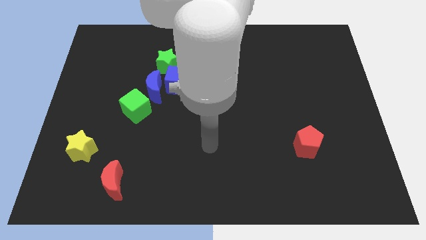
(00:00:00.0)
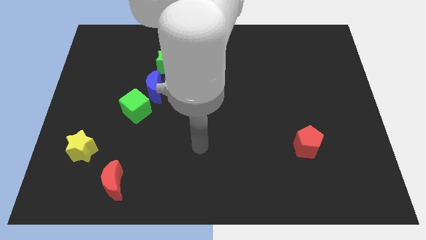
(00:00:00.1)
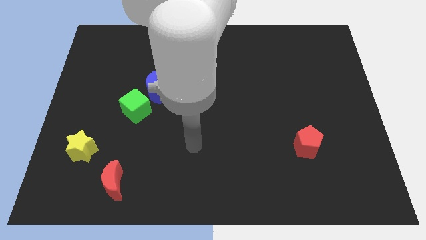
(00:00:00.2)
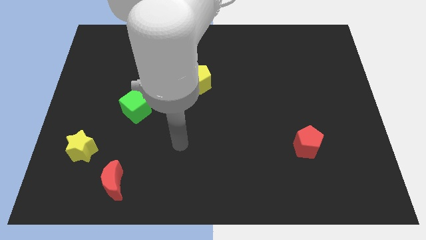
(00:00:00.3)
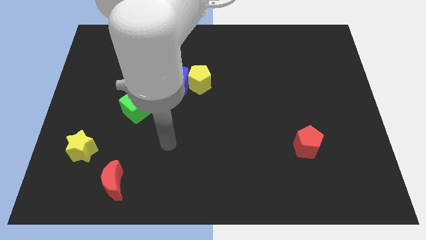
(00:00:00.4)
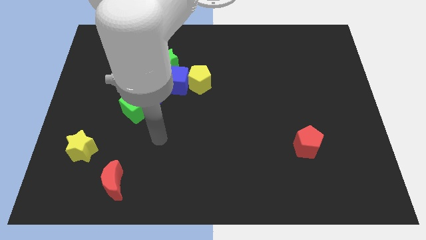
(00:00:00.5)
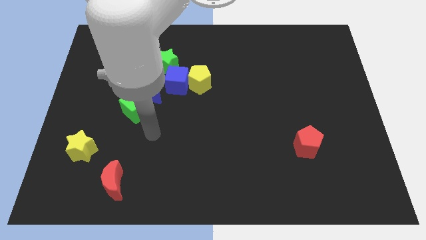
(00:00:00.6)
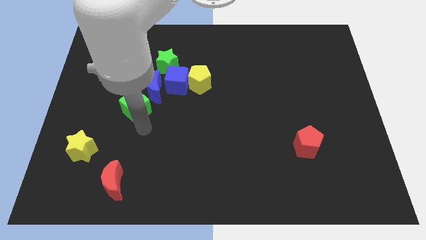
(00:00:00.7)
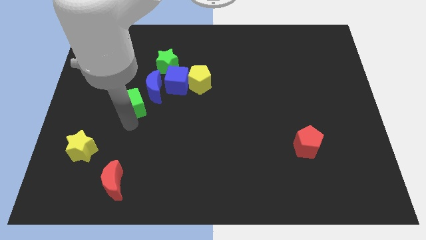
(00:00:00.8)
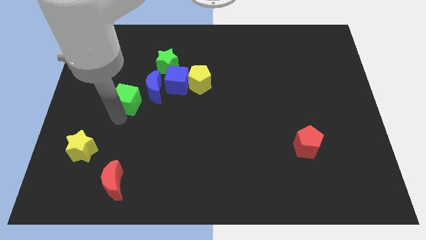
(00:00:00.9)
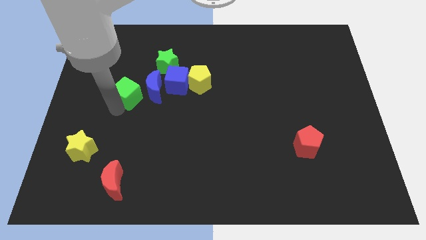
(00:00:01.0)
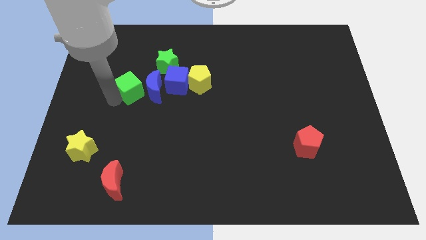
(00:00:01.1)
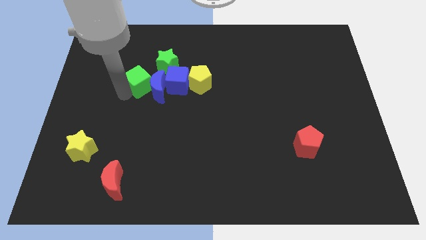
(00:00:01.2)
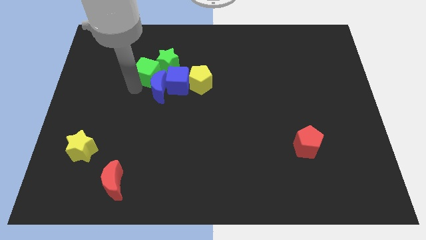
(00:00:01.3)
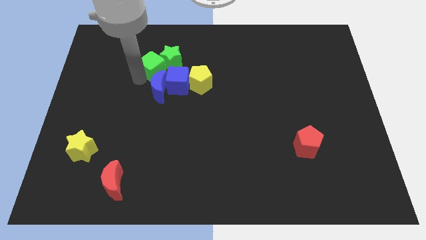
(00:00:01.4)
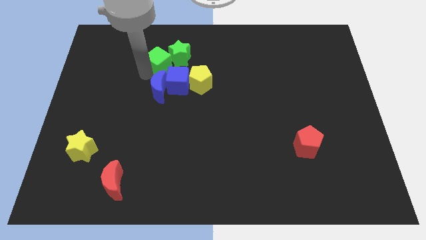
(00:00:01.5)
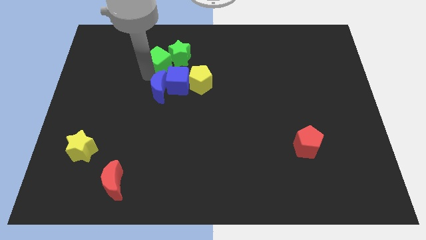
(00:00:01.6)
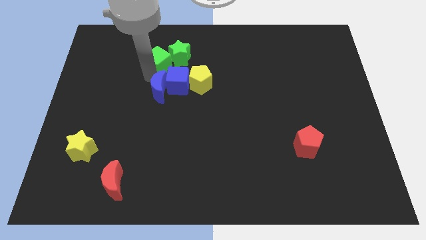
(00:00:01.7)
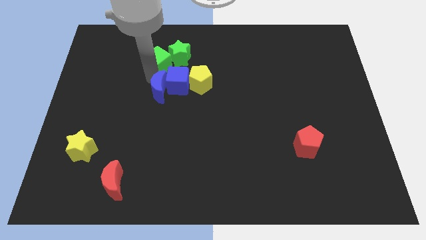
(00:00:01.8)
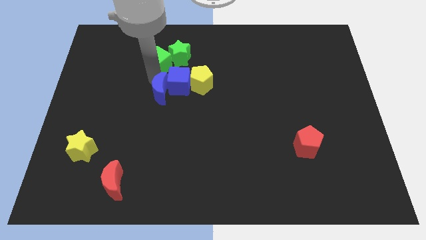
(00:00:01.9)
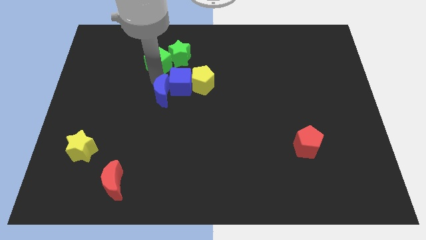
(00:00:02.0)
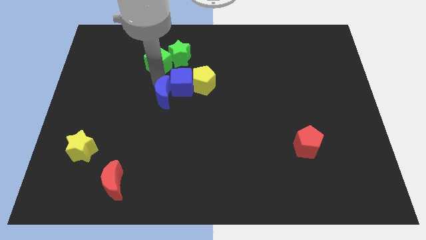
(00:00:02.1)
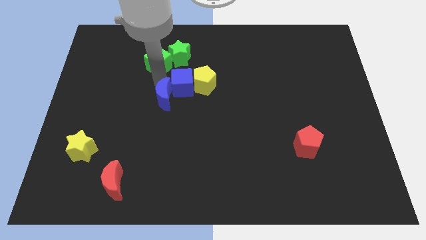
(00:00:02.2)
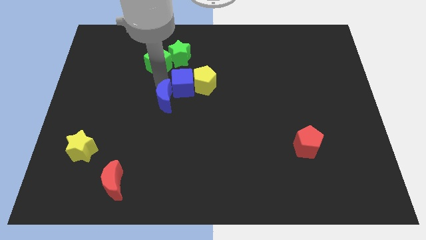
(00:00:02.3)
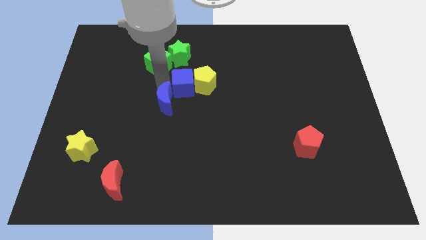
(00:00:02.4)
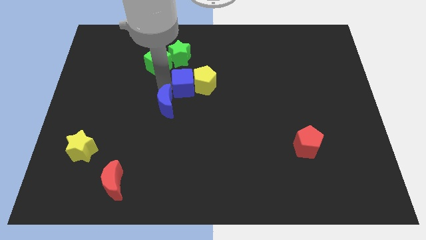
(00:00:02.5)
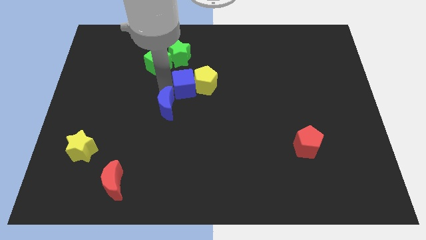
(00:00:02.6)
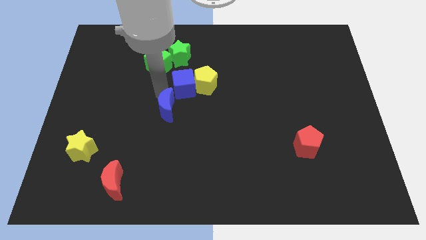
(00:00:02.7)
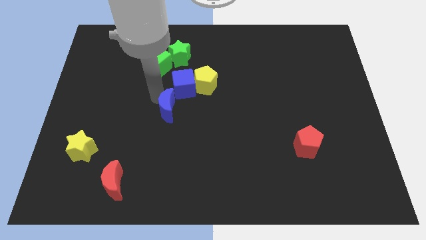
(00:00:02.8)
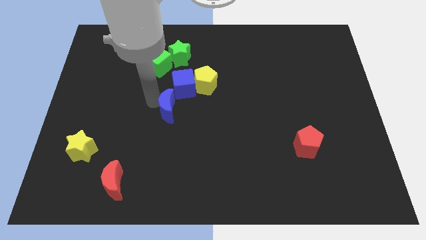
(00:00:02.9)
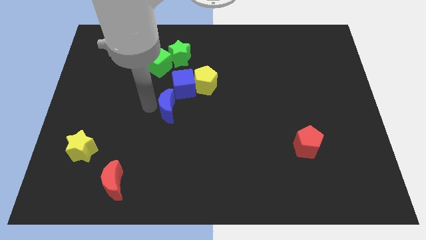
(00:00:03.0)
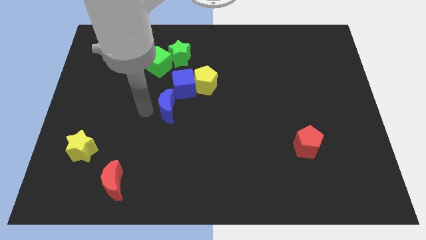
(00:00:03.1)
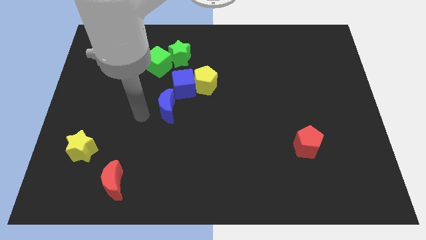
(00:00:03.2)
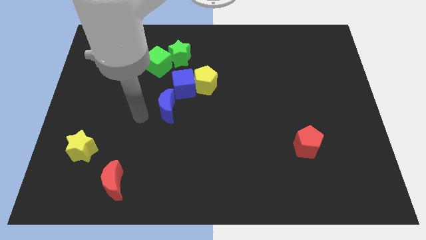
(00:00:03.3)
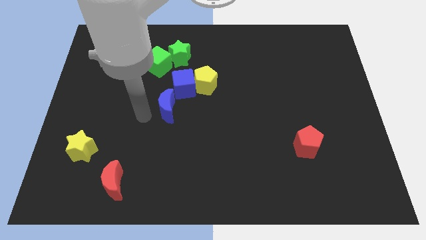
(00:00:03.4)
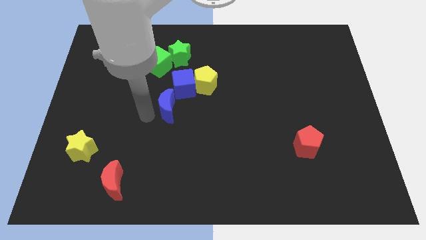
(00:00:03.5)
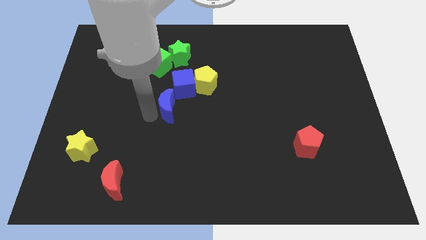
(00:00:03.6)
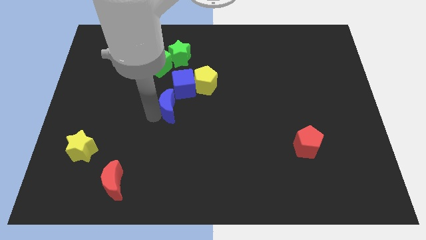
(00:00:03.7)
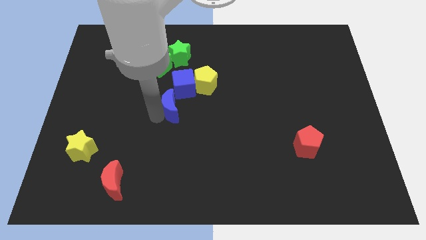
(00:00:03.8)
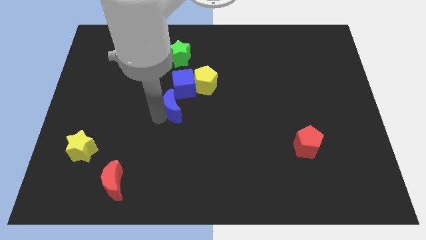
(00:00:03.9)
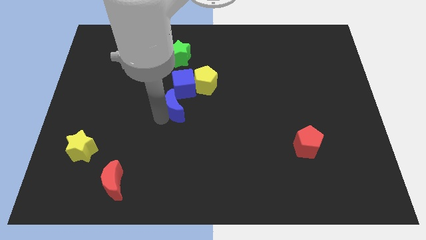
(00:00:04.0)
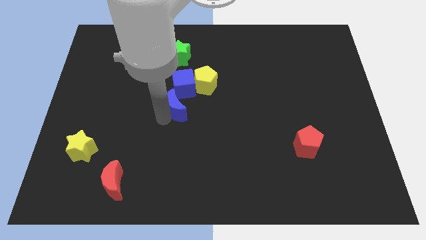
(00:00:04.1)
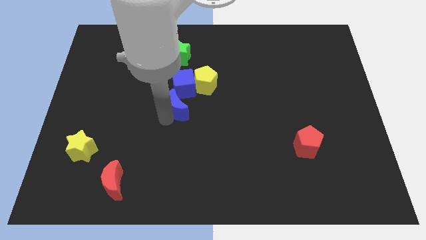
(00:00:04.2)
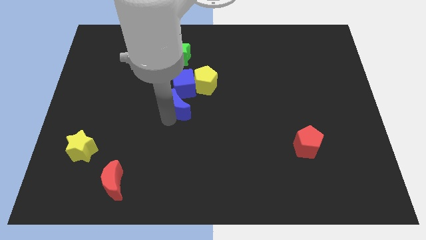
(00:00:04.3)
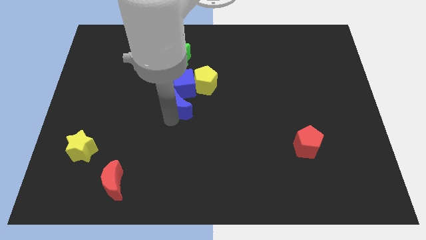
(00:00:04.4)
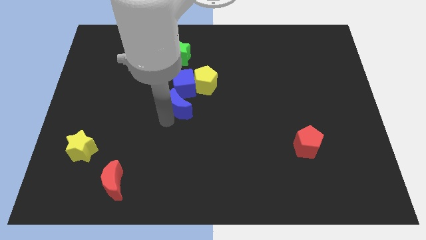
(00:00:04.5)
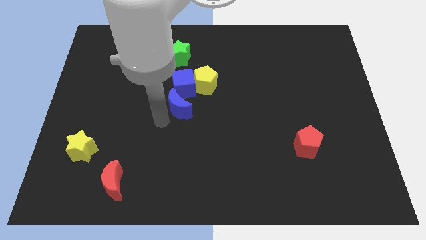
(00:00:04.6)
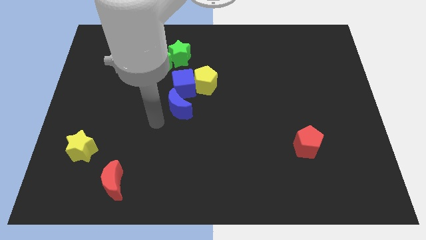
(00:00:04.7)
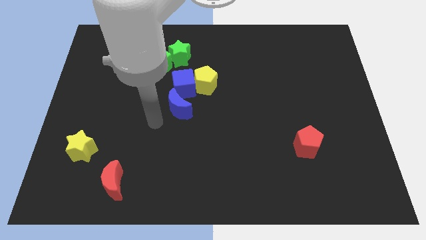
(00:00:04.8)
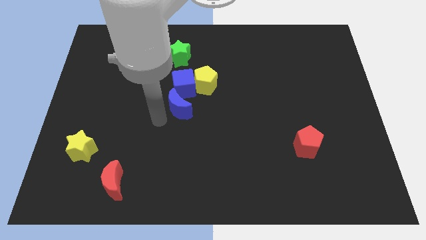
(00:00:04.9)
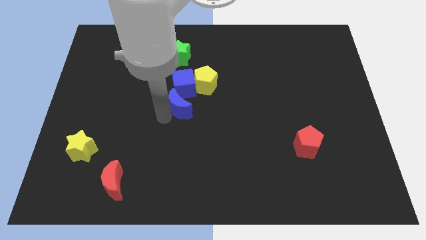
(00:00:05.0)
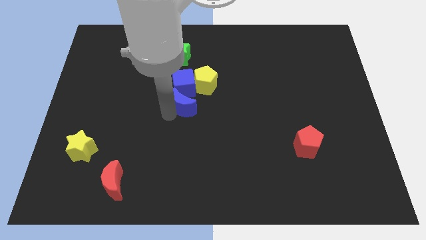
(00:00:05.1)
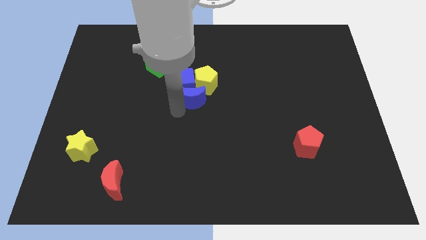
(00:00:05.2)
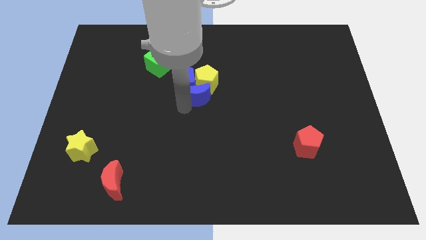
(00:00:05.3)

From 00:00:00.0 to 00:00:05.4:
move the blue moon towards the yellow pentagon

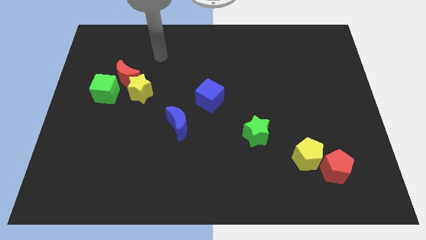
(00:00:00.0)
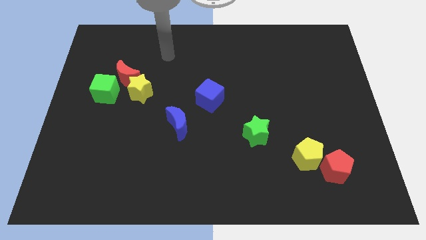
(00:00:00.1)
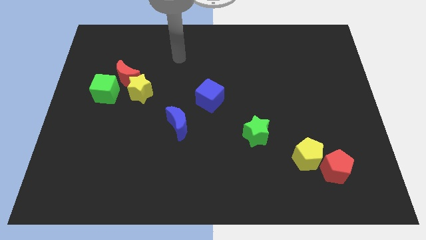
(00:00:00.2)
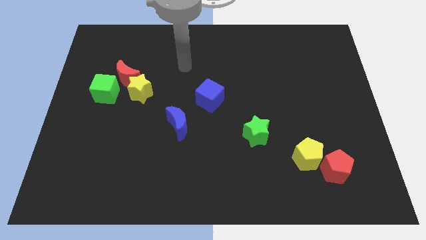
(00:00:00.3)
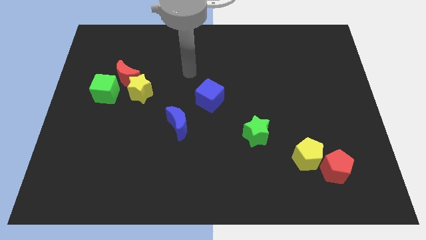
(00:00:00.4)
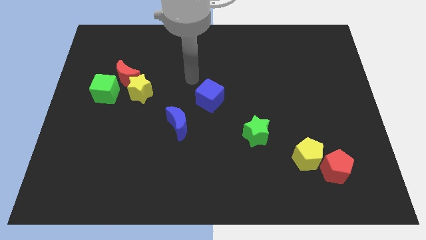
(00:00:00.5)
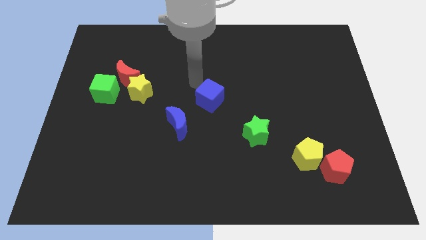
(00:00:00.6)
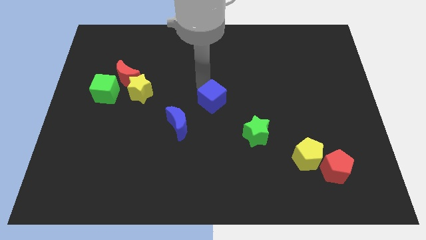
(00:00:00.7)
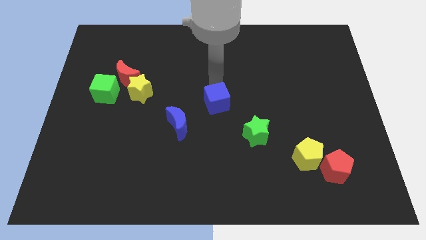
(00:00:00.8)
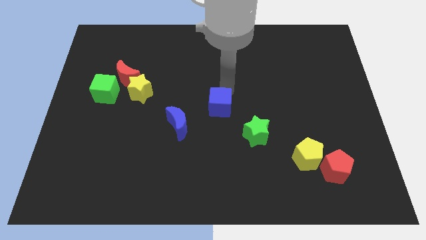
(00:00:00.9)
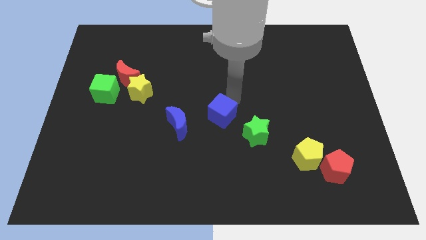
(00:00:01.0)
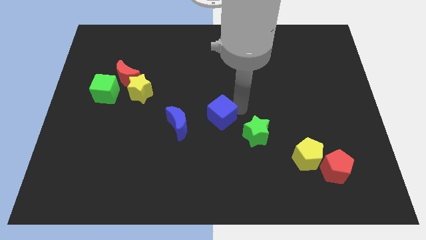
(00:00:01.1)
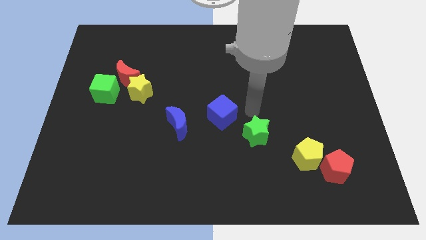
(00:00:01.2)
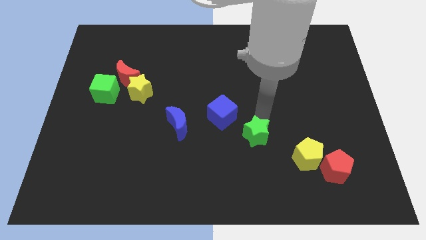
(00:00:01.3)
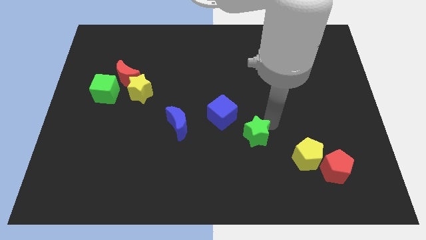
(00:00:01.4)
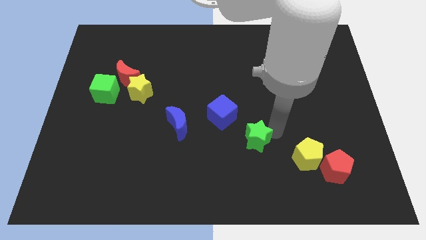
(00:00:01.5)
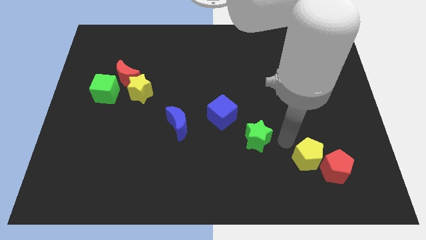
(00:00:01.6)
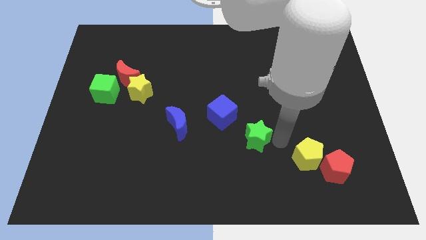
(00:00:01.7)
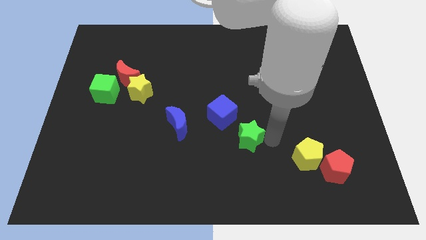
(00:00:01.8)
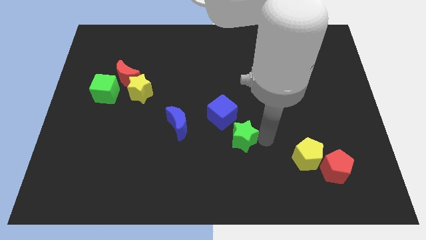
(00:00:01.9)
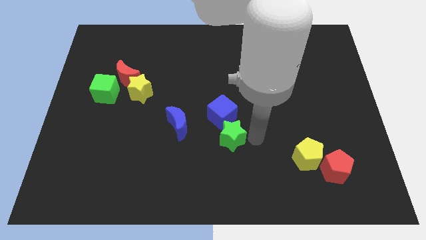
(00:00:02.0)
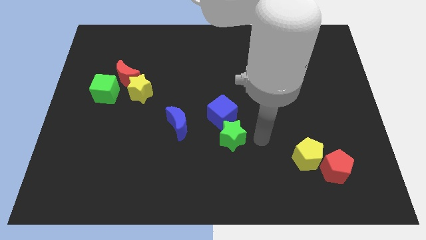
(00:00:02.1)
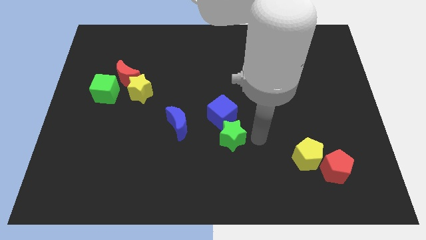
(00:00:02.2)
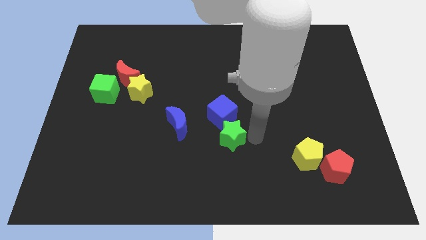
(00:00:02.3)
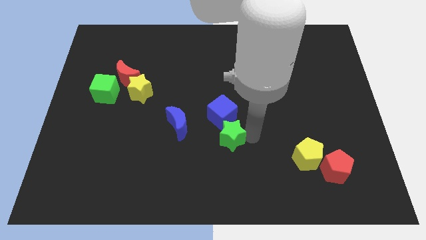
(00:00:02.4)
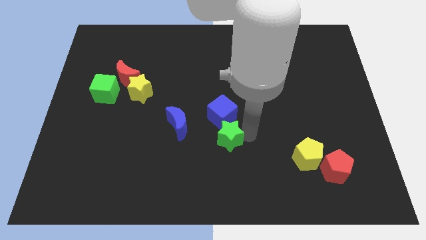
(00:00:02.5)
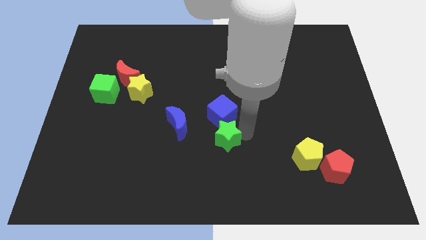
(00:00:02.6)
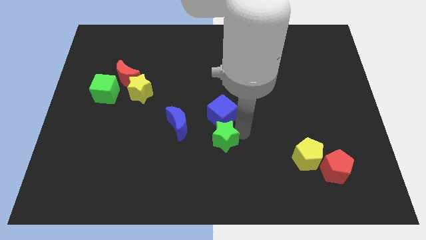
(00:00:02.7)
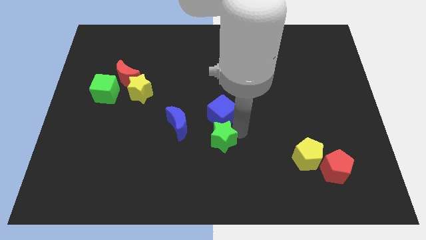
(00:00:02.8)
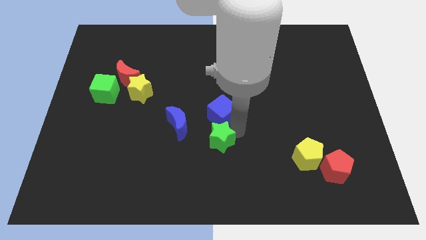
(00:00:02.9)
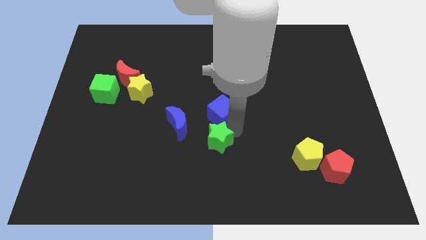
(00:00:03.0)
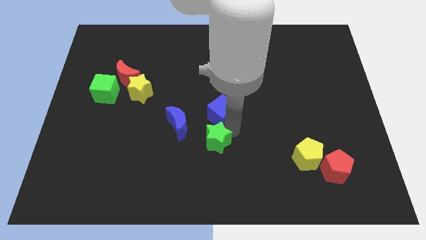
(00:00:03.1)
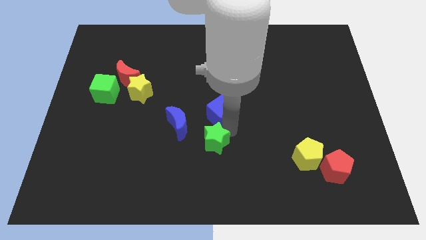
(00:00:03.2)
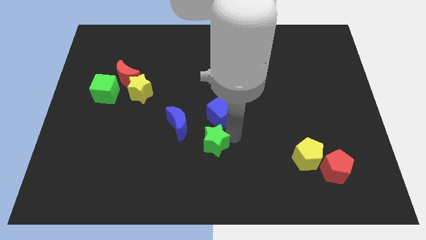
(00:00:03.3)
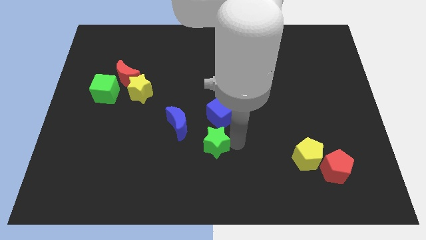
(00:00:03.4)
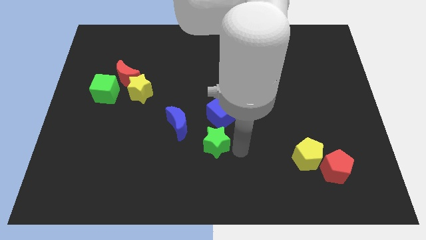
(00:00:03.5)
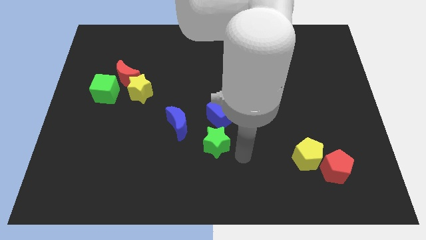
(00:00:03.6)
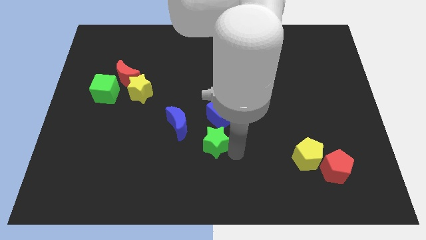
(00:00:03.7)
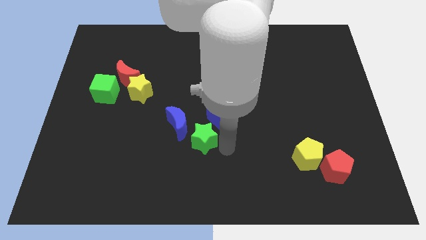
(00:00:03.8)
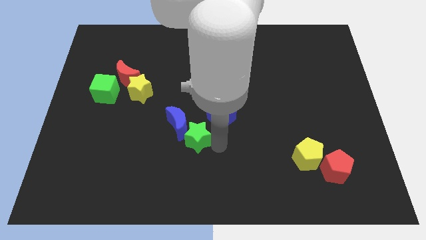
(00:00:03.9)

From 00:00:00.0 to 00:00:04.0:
put the green star towards the blue moon
